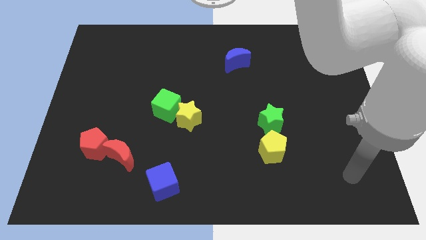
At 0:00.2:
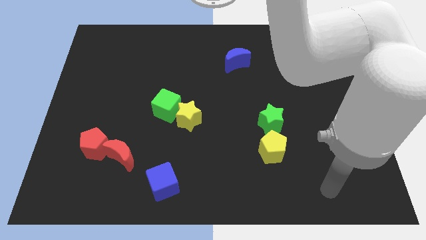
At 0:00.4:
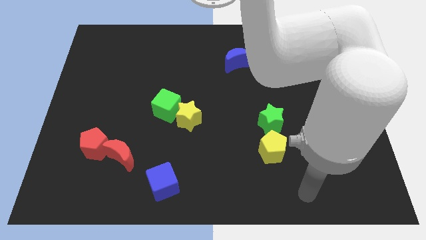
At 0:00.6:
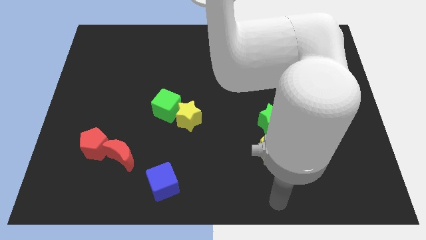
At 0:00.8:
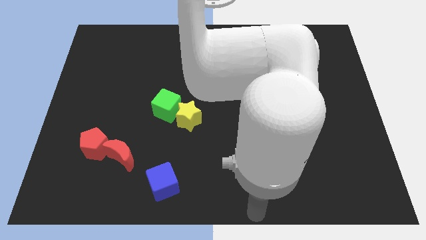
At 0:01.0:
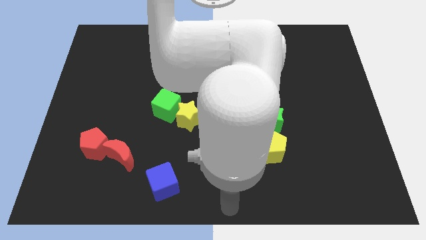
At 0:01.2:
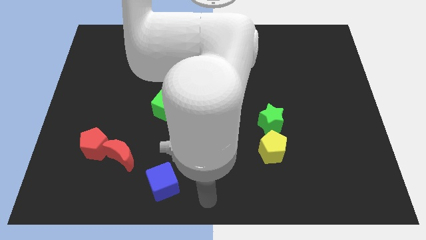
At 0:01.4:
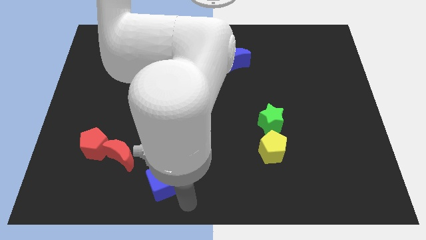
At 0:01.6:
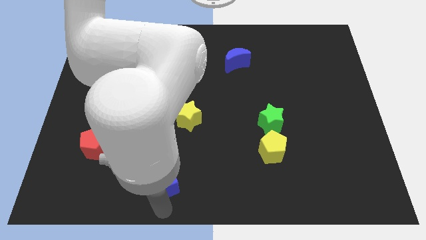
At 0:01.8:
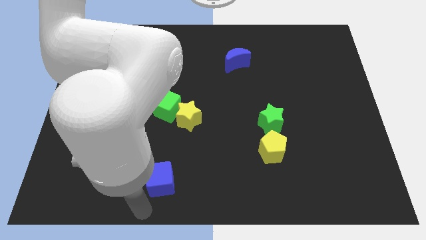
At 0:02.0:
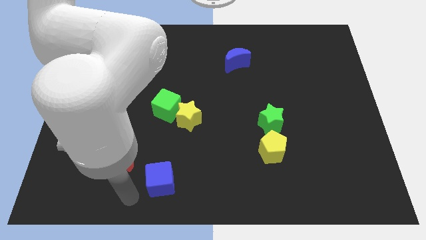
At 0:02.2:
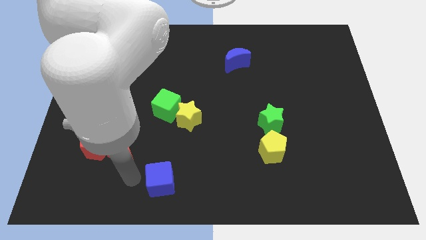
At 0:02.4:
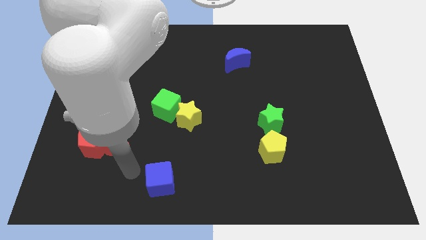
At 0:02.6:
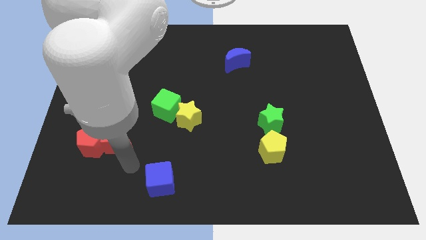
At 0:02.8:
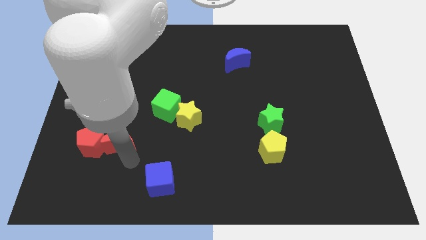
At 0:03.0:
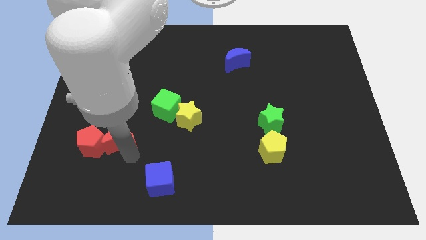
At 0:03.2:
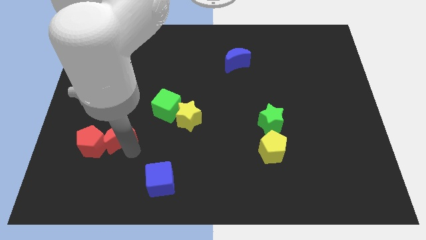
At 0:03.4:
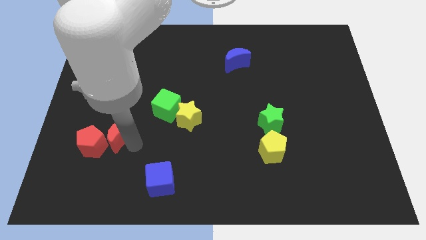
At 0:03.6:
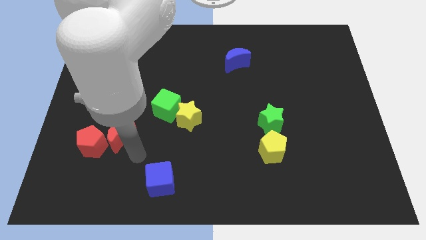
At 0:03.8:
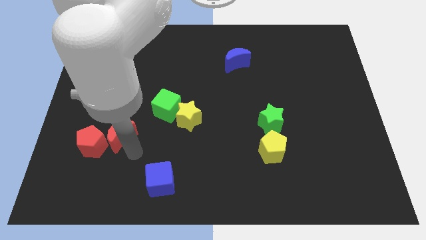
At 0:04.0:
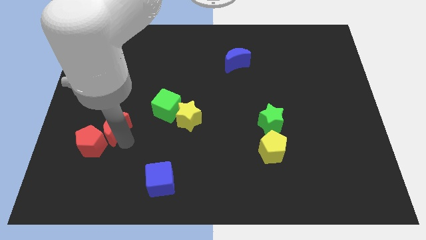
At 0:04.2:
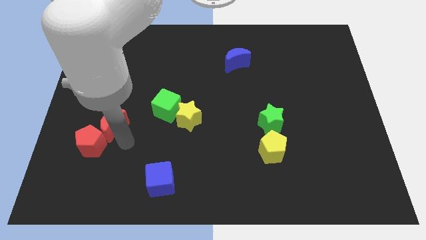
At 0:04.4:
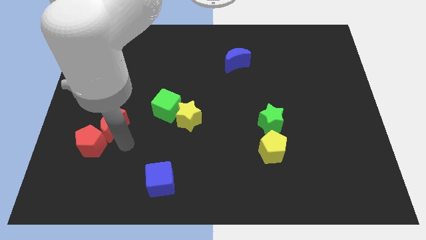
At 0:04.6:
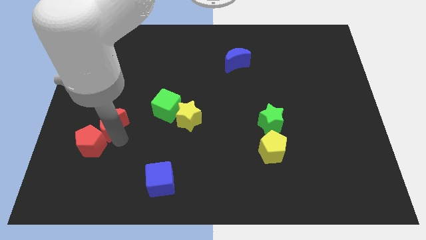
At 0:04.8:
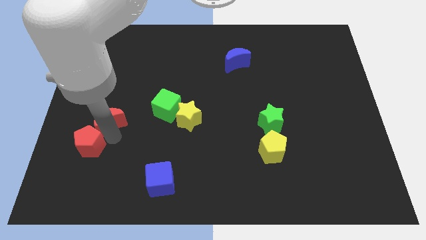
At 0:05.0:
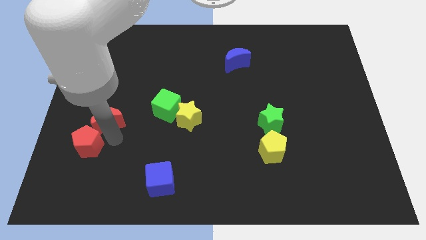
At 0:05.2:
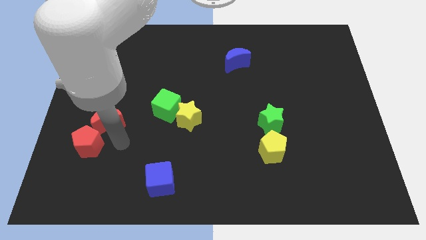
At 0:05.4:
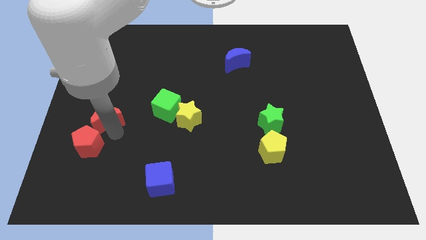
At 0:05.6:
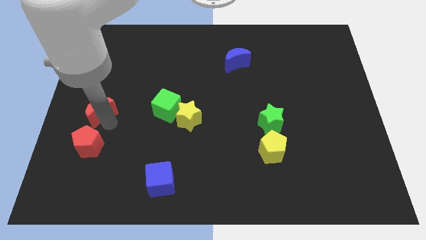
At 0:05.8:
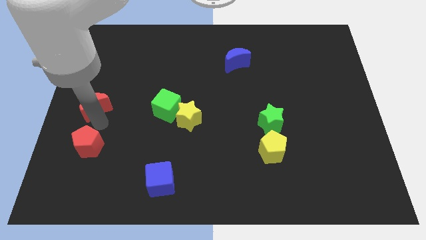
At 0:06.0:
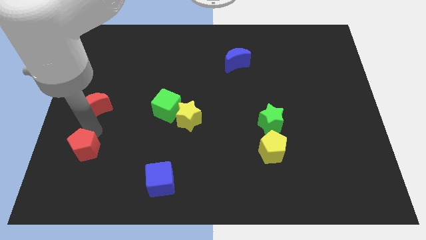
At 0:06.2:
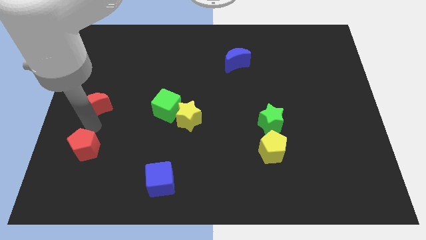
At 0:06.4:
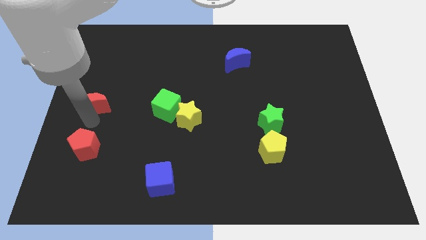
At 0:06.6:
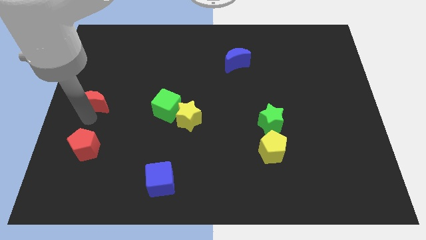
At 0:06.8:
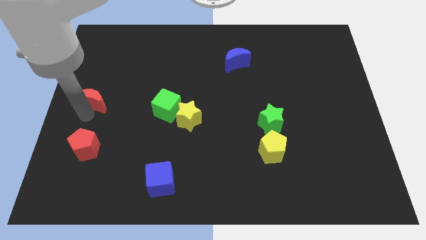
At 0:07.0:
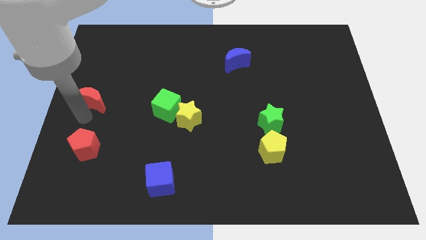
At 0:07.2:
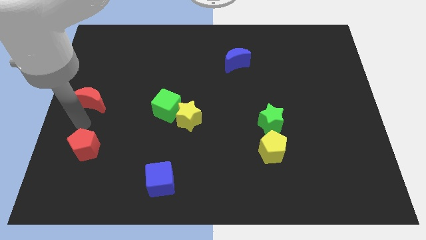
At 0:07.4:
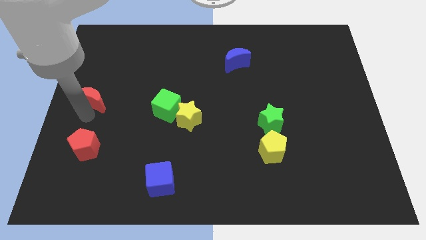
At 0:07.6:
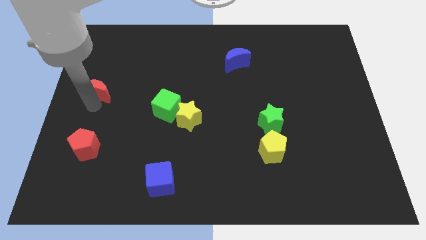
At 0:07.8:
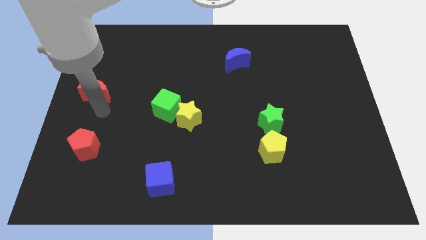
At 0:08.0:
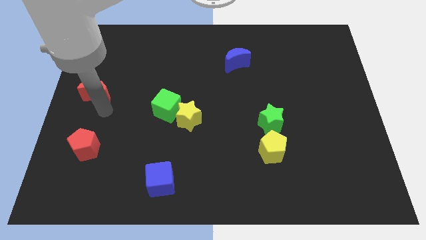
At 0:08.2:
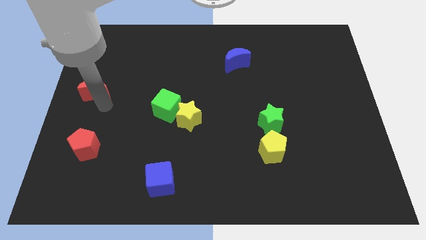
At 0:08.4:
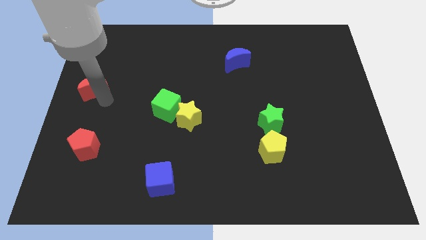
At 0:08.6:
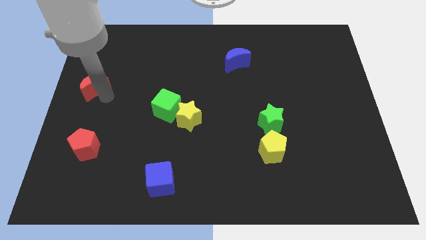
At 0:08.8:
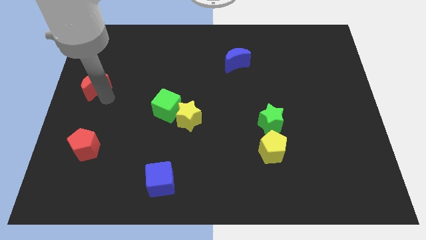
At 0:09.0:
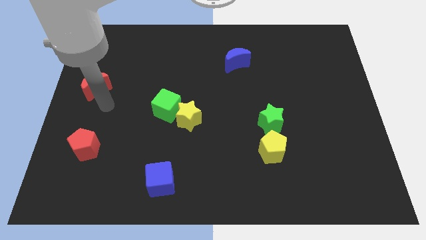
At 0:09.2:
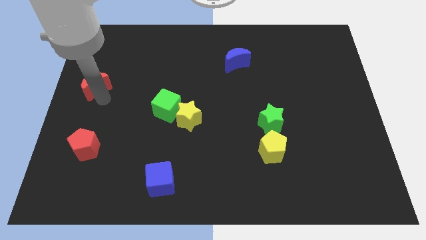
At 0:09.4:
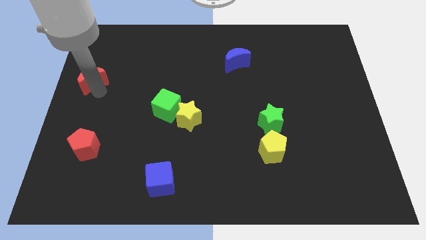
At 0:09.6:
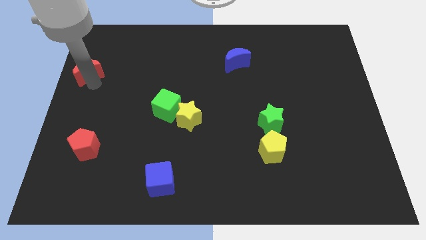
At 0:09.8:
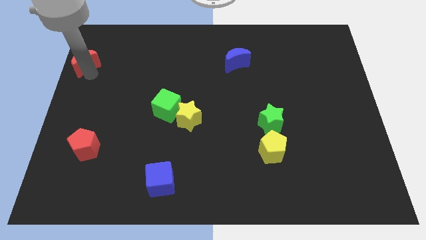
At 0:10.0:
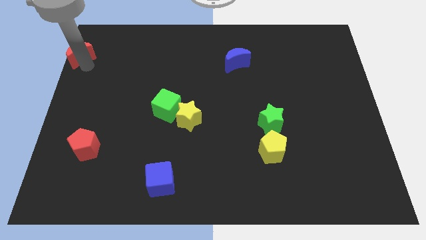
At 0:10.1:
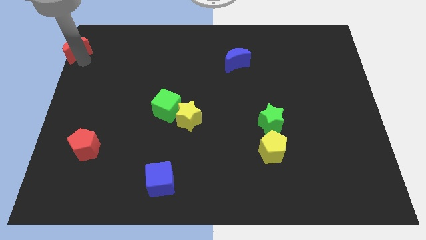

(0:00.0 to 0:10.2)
put the red moon to the top left corner

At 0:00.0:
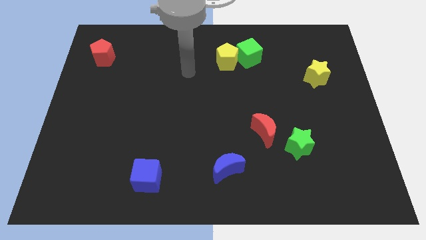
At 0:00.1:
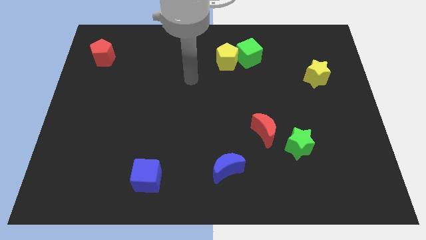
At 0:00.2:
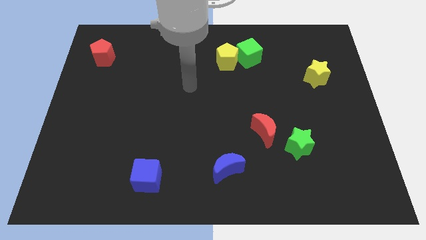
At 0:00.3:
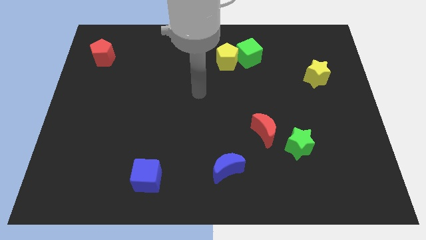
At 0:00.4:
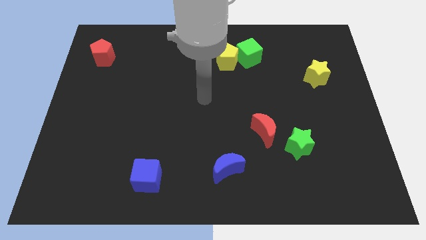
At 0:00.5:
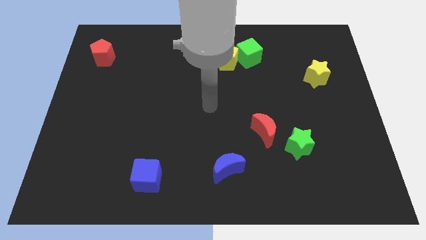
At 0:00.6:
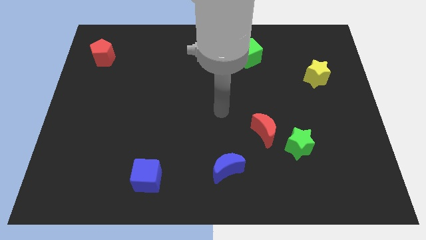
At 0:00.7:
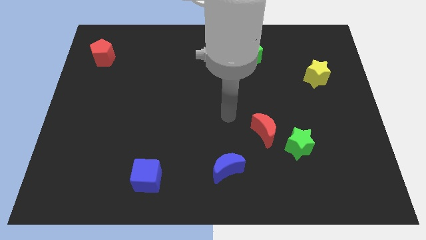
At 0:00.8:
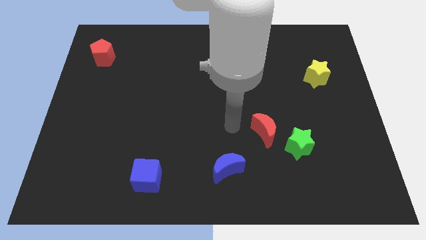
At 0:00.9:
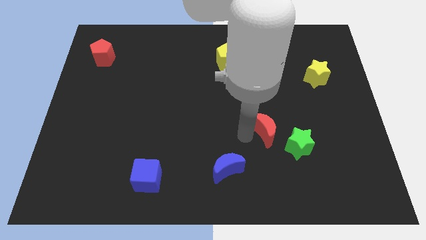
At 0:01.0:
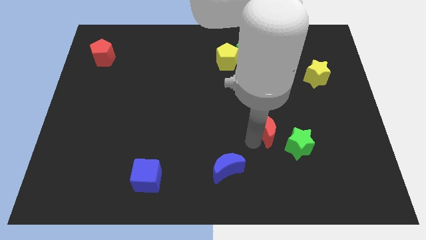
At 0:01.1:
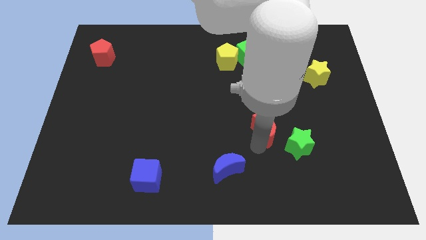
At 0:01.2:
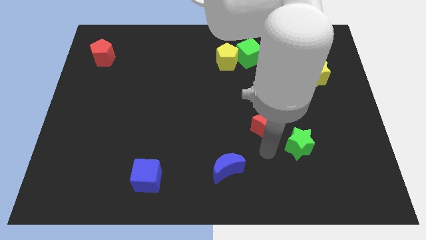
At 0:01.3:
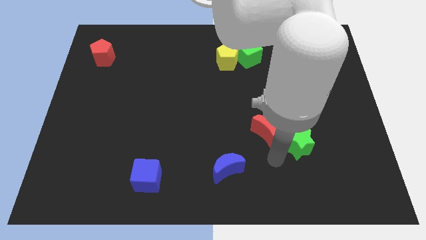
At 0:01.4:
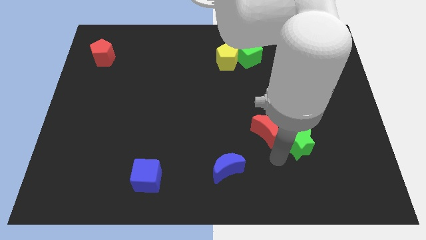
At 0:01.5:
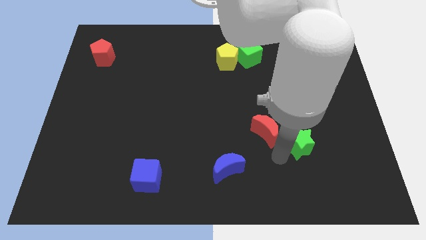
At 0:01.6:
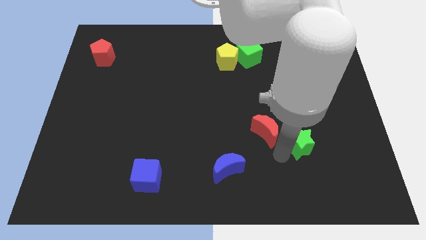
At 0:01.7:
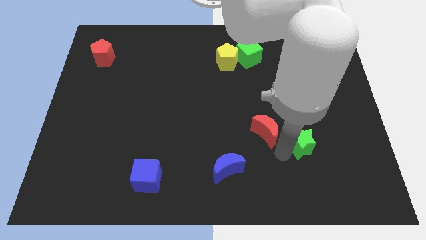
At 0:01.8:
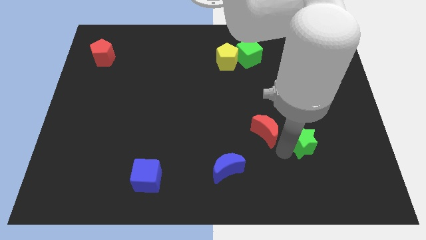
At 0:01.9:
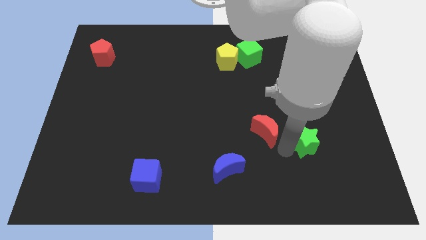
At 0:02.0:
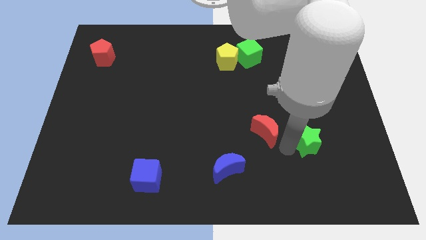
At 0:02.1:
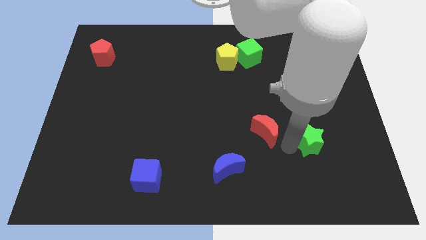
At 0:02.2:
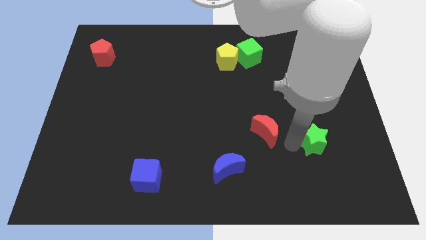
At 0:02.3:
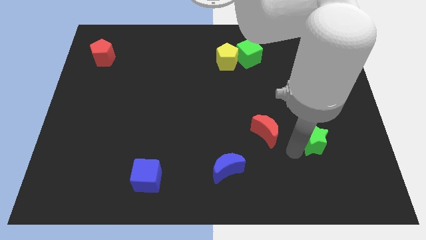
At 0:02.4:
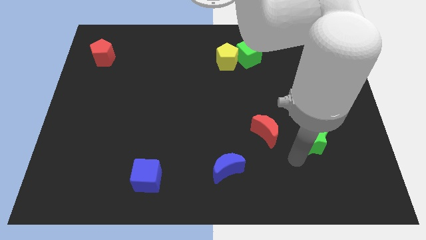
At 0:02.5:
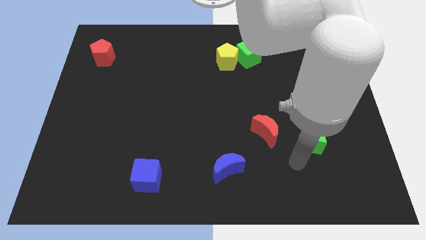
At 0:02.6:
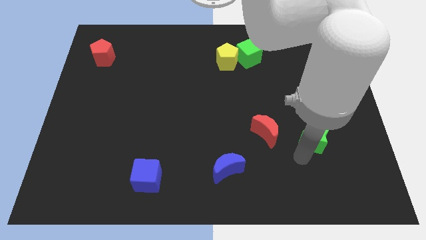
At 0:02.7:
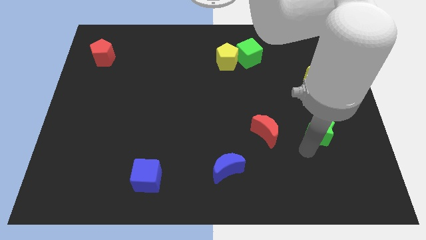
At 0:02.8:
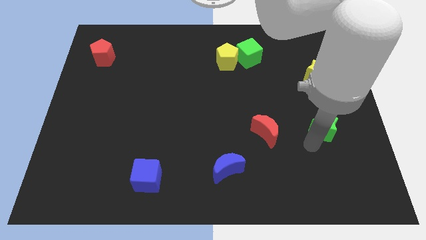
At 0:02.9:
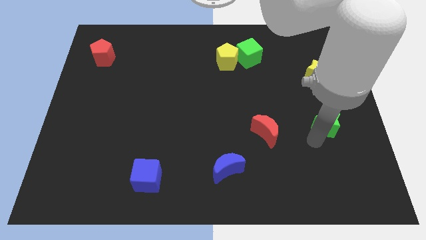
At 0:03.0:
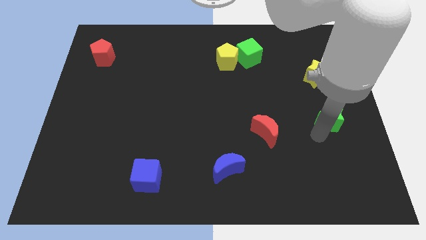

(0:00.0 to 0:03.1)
push the green star to the right side of the board
